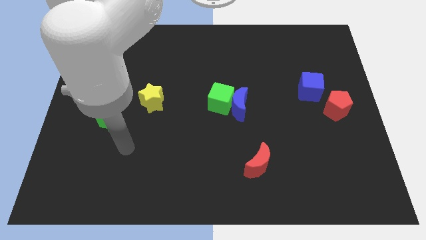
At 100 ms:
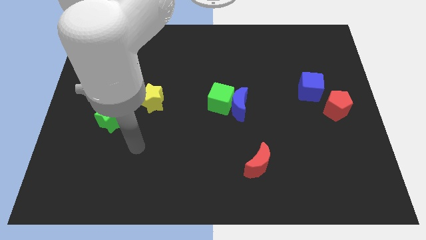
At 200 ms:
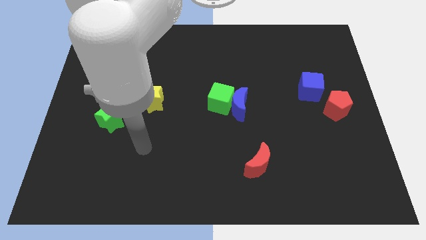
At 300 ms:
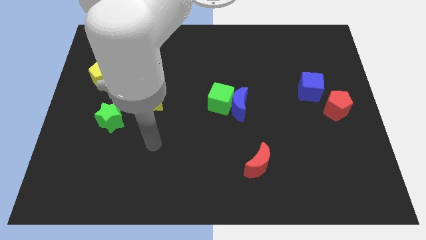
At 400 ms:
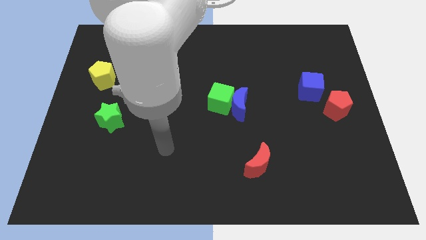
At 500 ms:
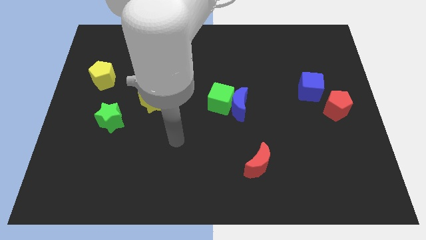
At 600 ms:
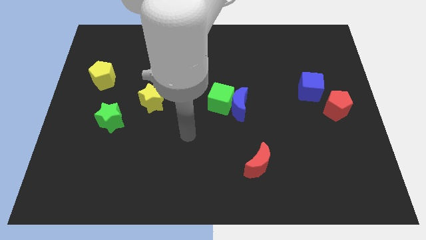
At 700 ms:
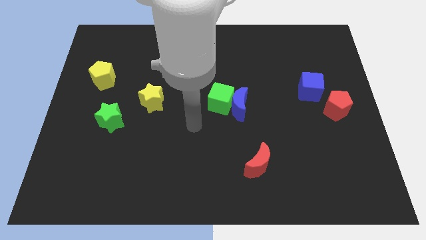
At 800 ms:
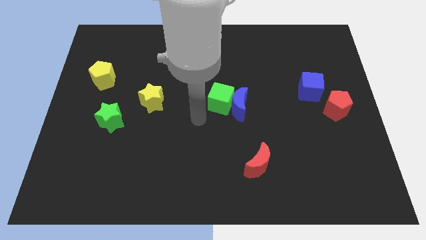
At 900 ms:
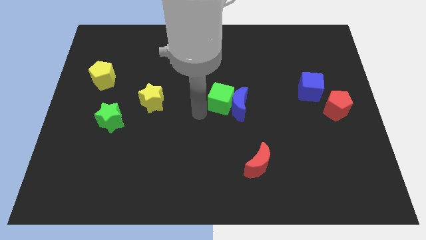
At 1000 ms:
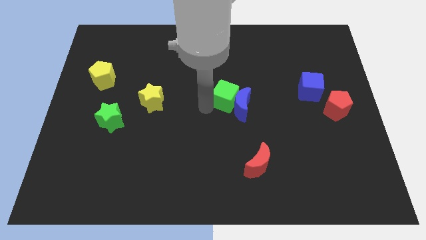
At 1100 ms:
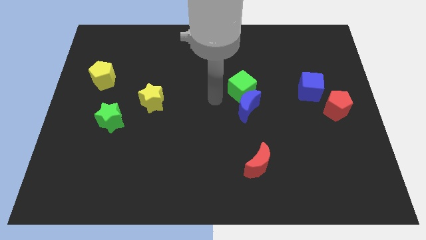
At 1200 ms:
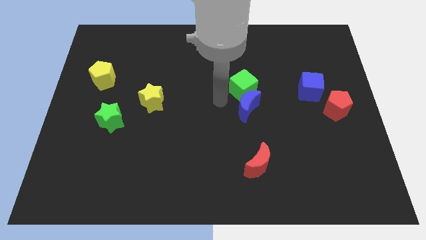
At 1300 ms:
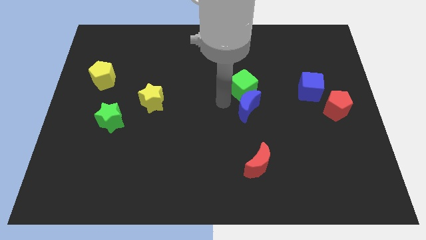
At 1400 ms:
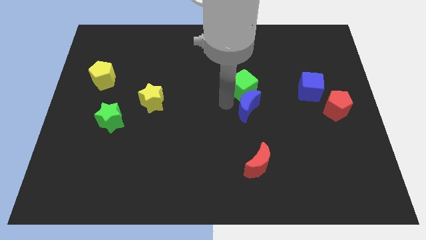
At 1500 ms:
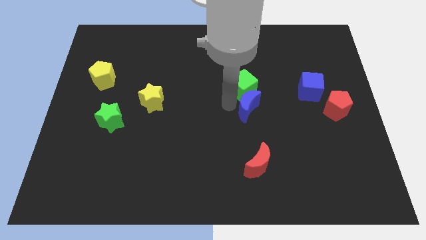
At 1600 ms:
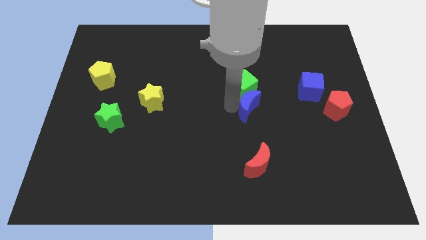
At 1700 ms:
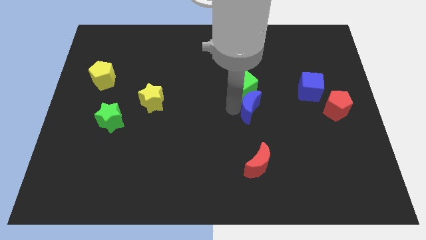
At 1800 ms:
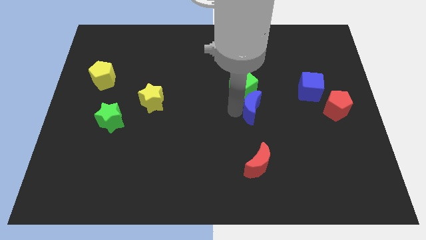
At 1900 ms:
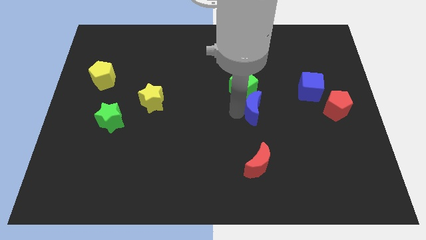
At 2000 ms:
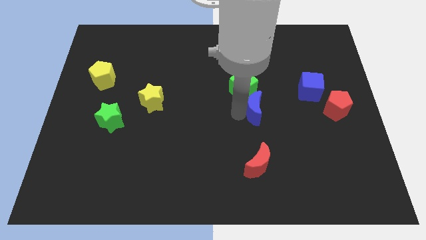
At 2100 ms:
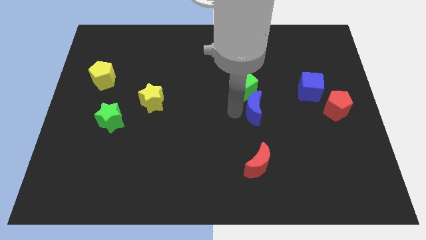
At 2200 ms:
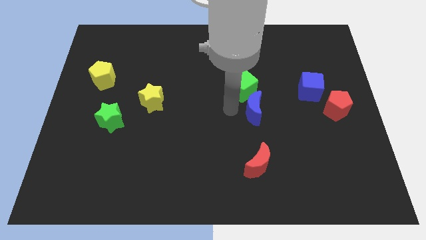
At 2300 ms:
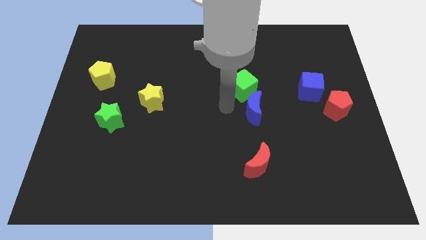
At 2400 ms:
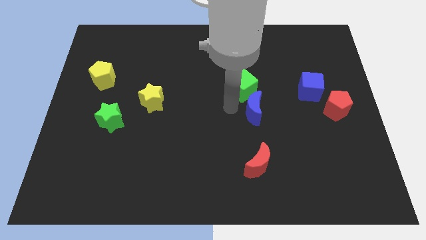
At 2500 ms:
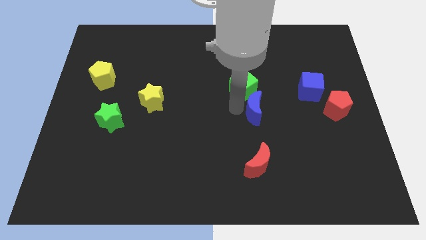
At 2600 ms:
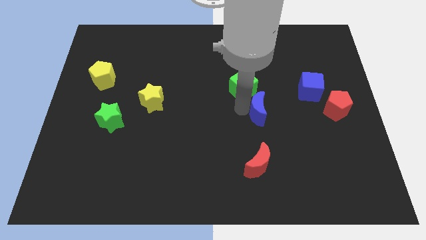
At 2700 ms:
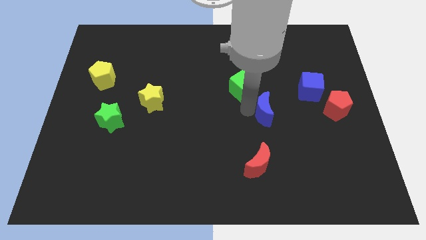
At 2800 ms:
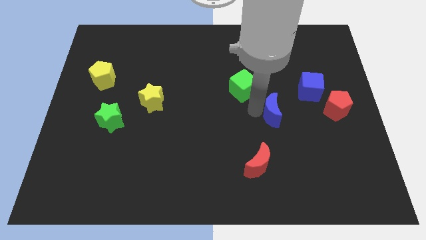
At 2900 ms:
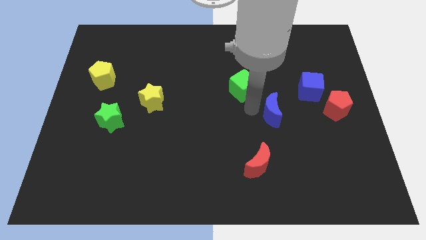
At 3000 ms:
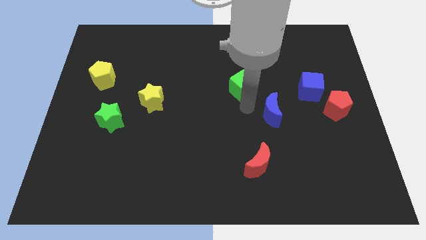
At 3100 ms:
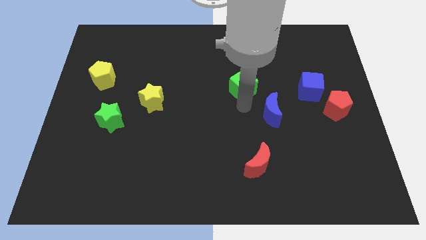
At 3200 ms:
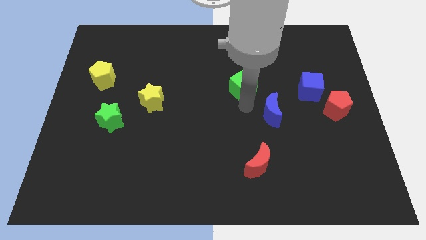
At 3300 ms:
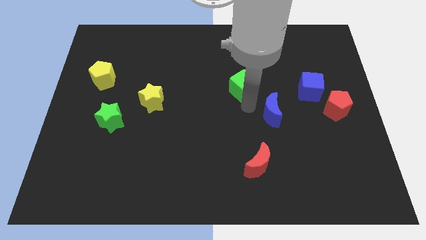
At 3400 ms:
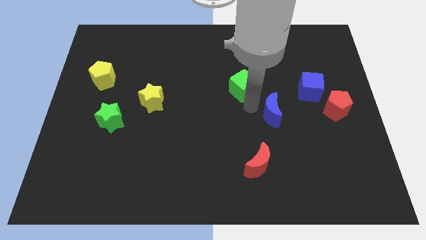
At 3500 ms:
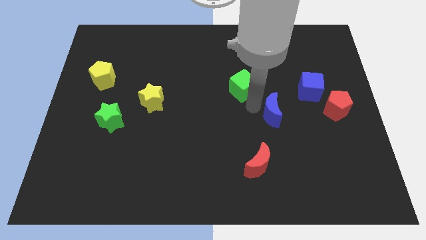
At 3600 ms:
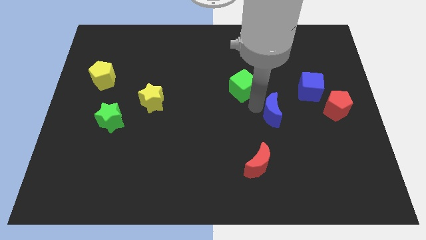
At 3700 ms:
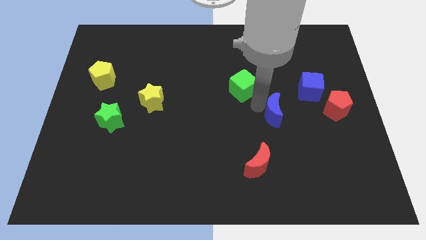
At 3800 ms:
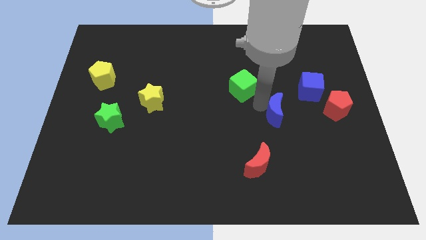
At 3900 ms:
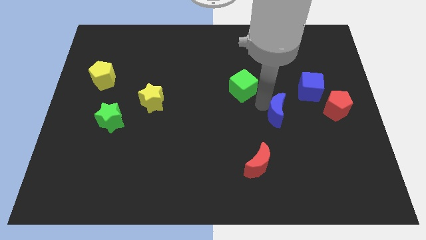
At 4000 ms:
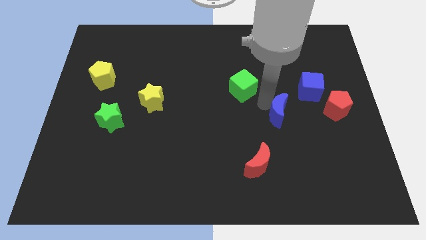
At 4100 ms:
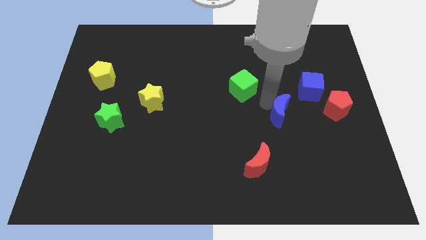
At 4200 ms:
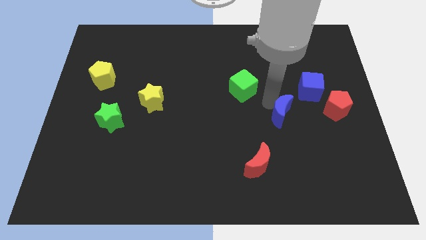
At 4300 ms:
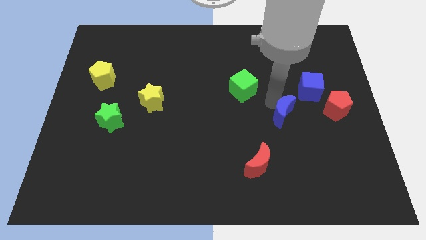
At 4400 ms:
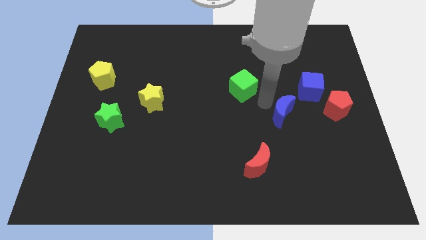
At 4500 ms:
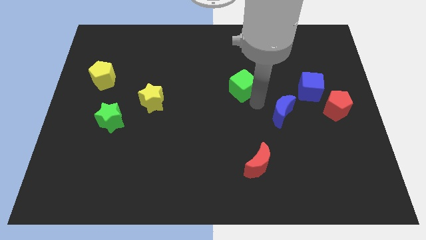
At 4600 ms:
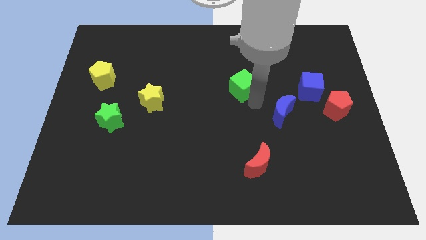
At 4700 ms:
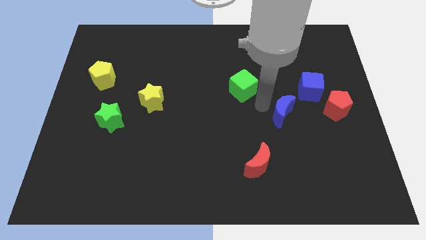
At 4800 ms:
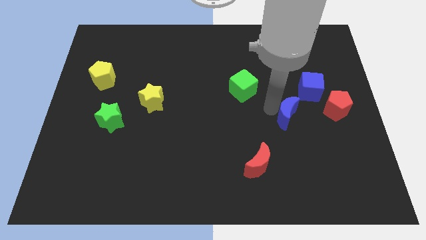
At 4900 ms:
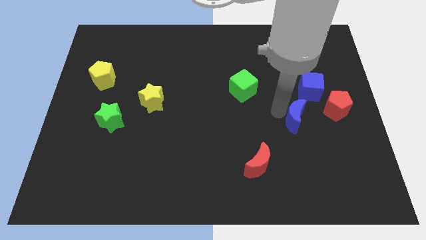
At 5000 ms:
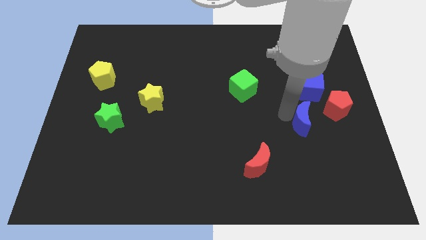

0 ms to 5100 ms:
put the blue moon to the bottom left of the red pentagon

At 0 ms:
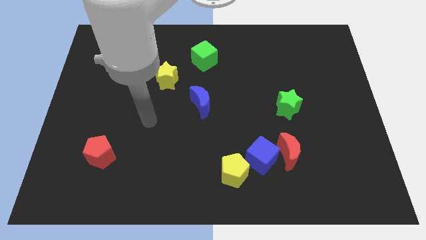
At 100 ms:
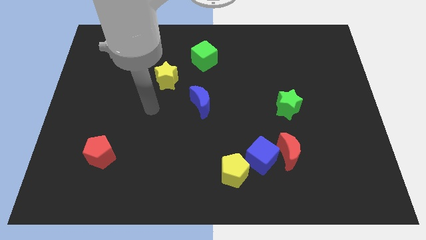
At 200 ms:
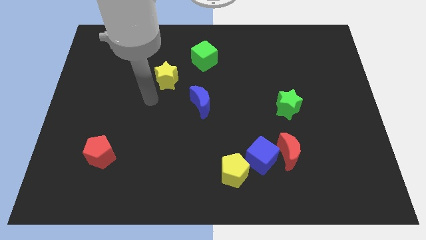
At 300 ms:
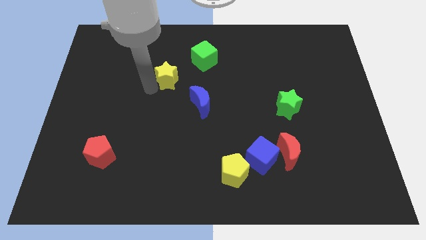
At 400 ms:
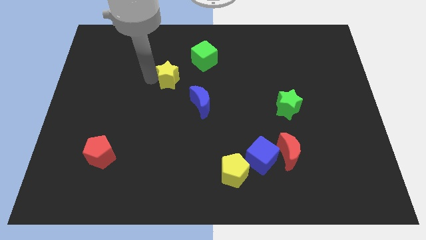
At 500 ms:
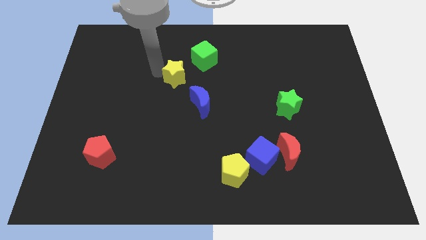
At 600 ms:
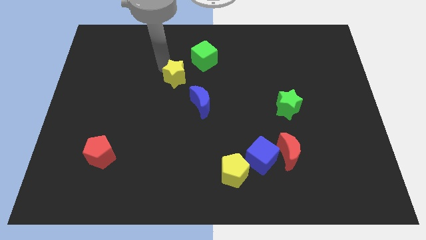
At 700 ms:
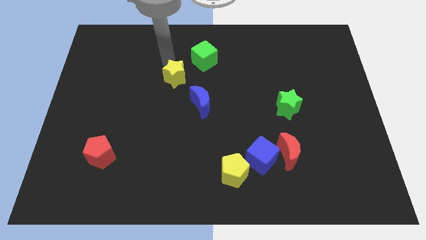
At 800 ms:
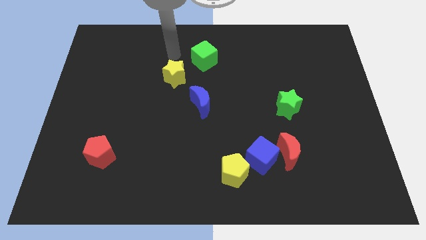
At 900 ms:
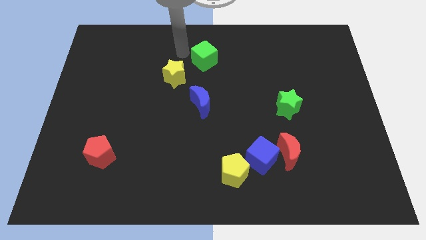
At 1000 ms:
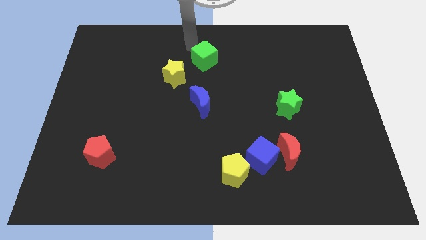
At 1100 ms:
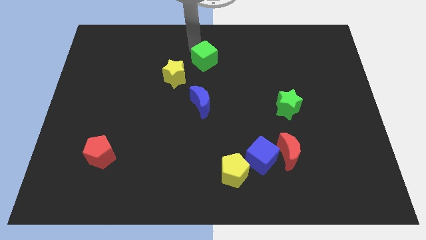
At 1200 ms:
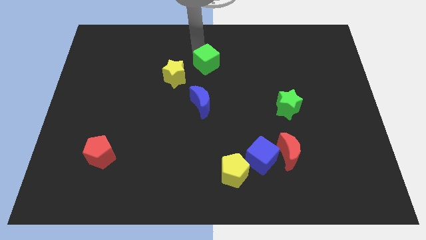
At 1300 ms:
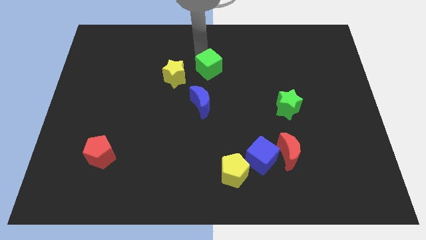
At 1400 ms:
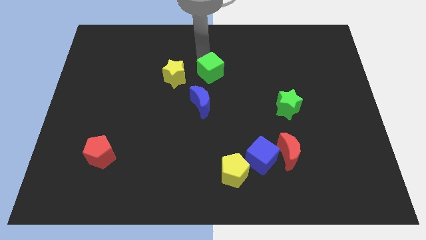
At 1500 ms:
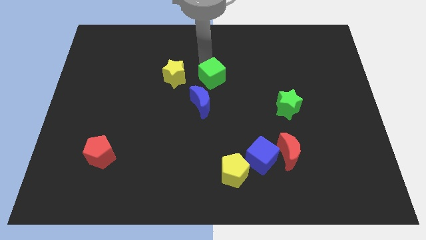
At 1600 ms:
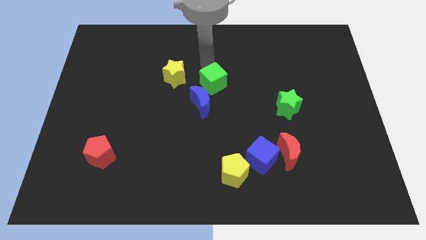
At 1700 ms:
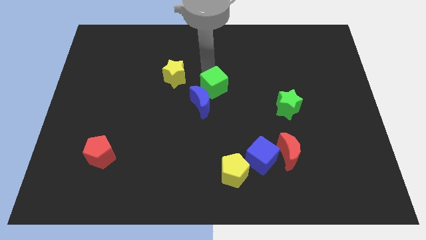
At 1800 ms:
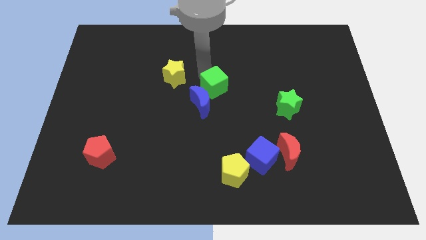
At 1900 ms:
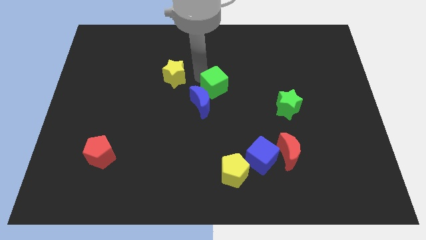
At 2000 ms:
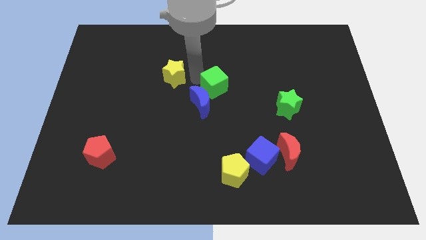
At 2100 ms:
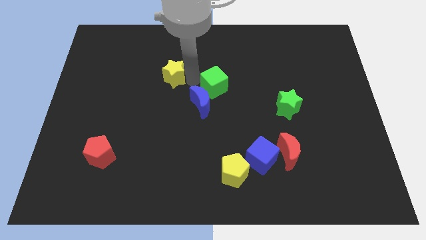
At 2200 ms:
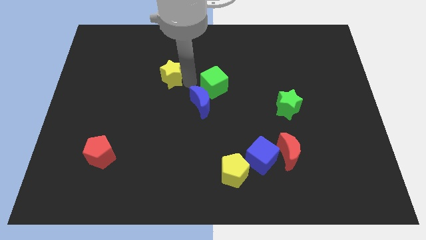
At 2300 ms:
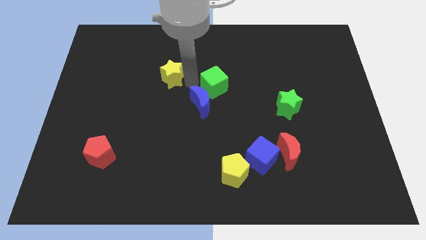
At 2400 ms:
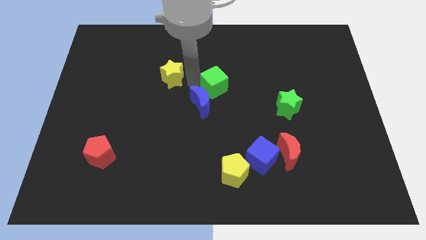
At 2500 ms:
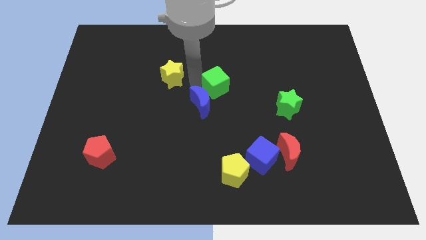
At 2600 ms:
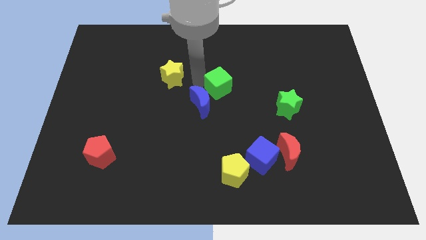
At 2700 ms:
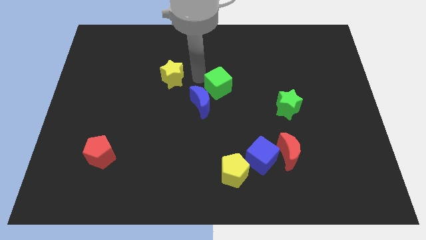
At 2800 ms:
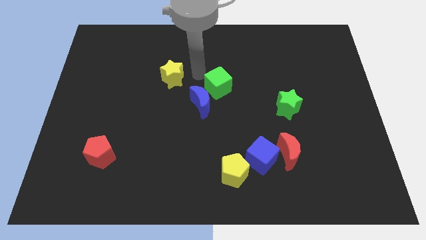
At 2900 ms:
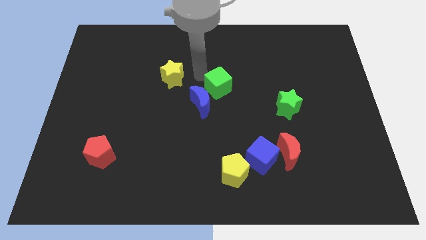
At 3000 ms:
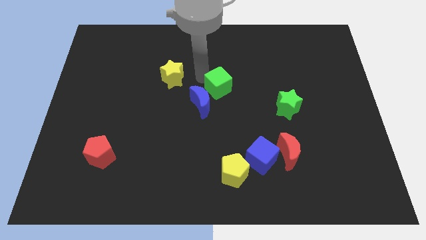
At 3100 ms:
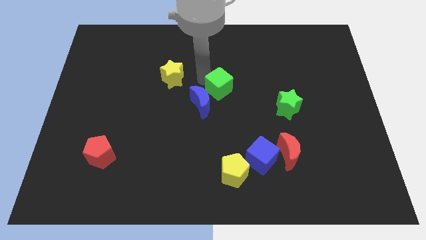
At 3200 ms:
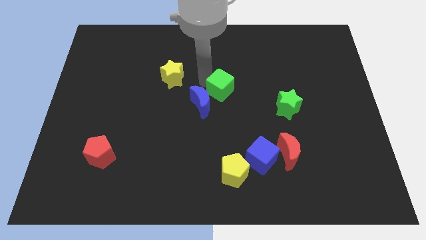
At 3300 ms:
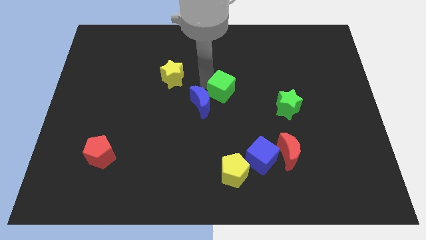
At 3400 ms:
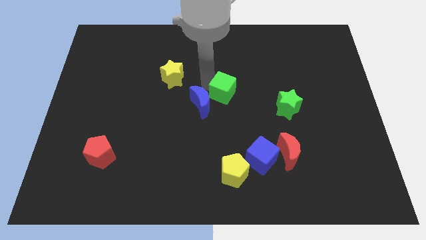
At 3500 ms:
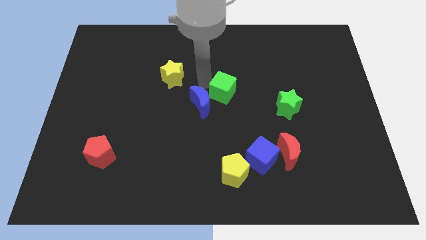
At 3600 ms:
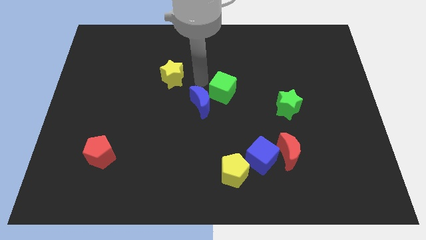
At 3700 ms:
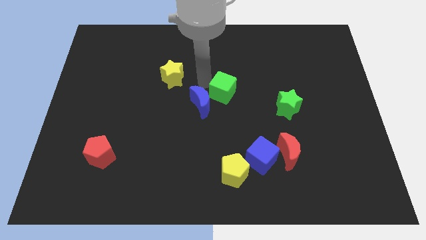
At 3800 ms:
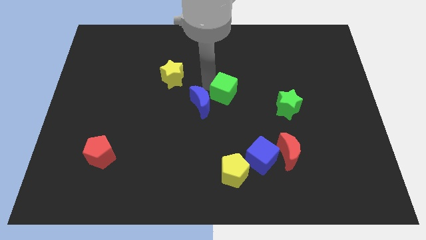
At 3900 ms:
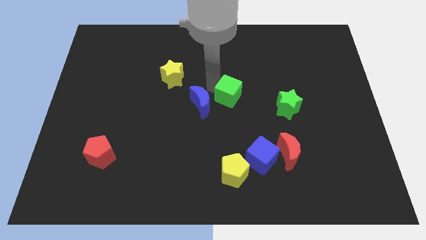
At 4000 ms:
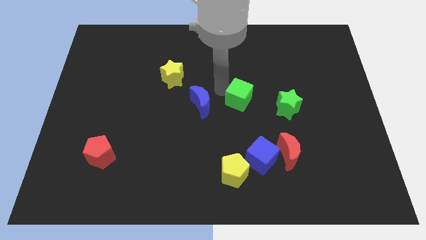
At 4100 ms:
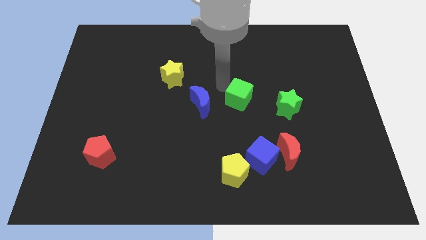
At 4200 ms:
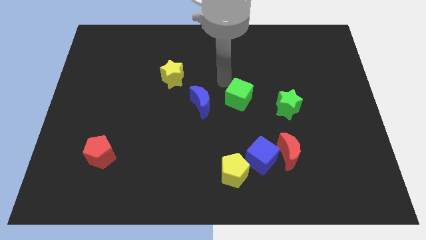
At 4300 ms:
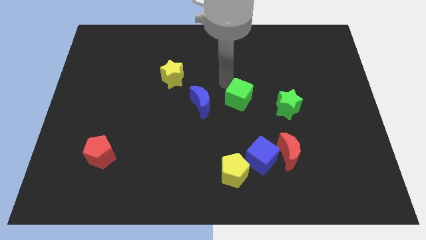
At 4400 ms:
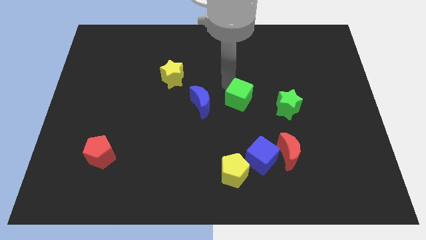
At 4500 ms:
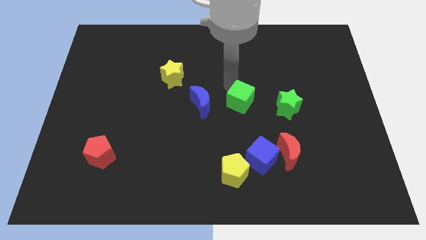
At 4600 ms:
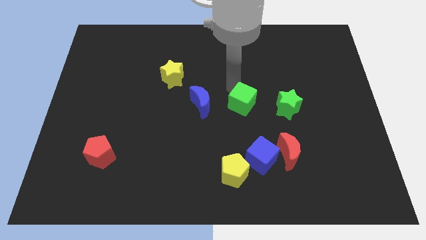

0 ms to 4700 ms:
slide the green cube above the blue cube
